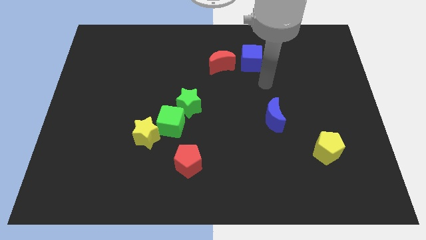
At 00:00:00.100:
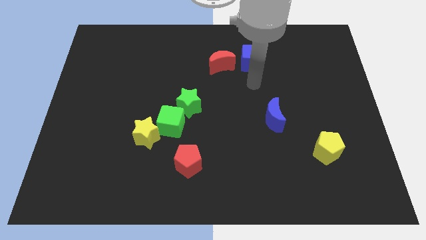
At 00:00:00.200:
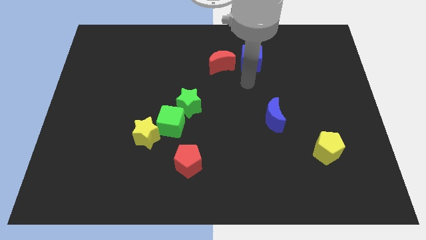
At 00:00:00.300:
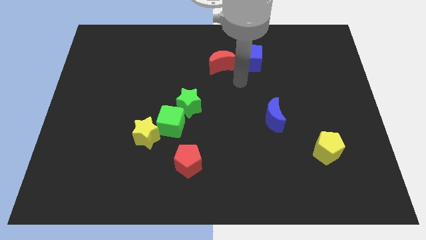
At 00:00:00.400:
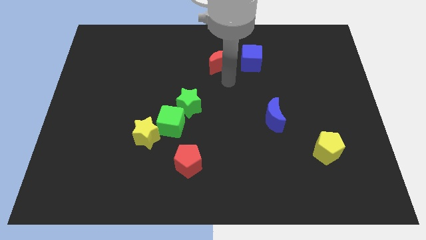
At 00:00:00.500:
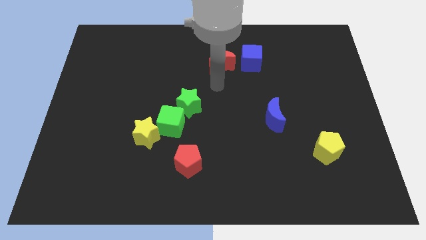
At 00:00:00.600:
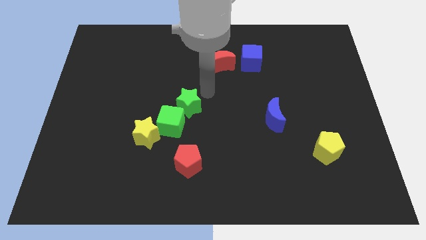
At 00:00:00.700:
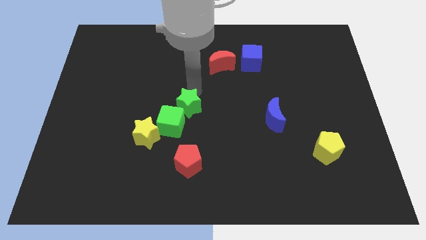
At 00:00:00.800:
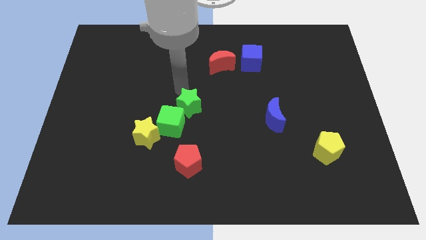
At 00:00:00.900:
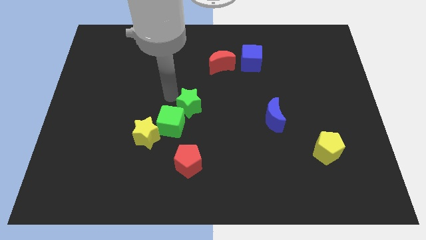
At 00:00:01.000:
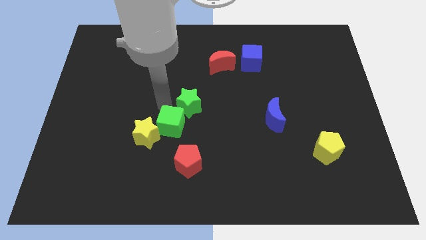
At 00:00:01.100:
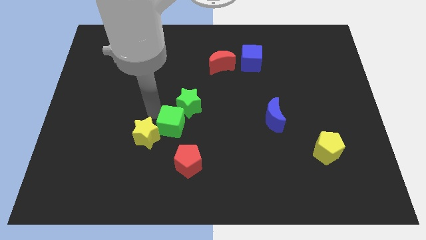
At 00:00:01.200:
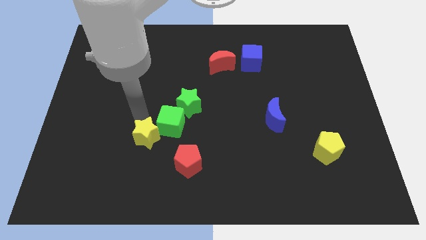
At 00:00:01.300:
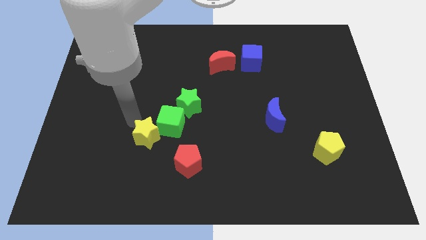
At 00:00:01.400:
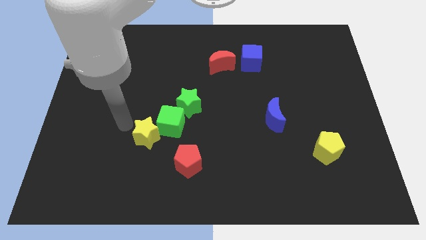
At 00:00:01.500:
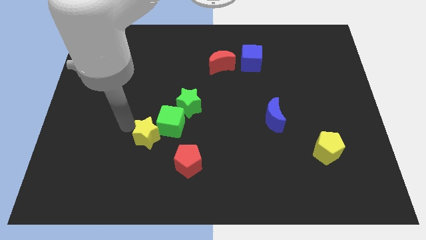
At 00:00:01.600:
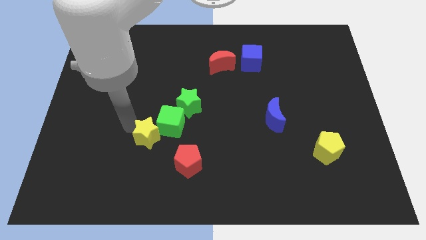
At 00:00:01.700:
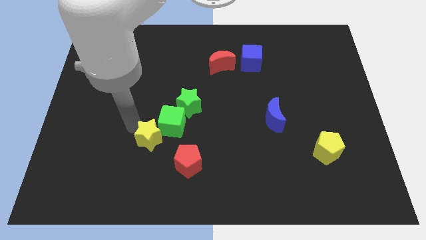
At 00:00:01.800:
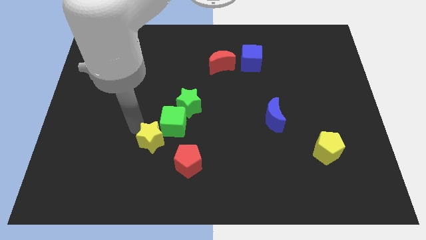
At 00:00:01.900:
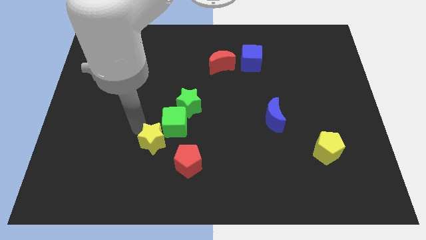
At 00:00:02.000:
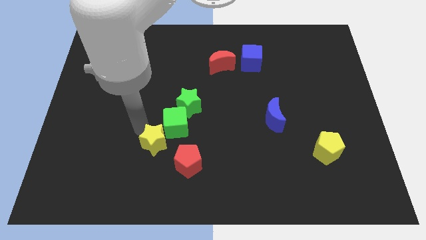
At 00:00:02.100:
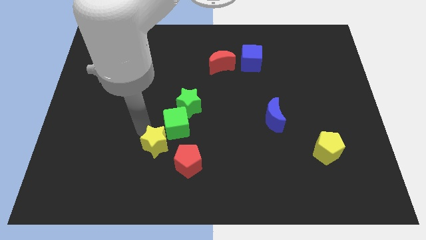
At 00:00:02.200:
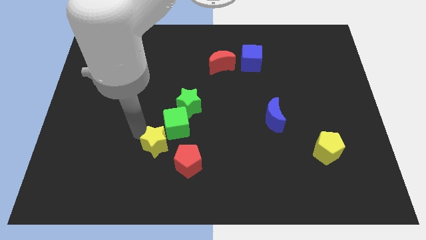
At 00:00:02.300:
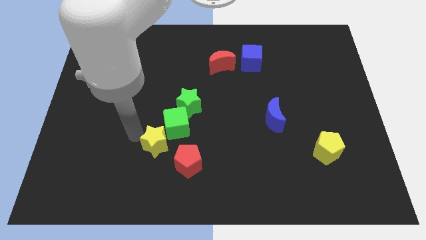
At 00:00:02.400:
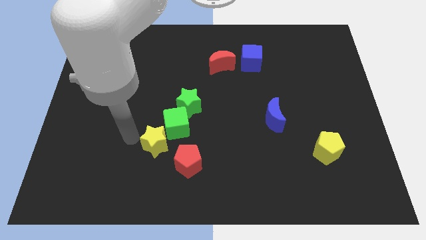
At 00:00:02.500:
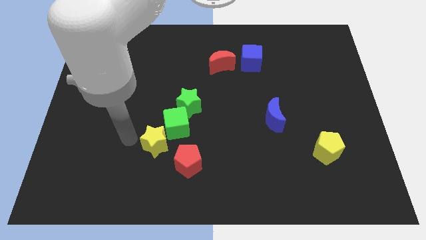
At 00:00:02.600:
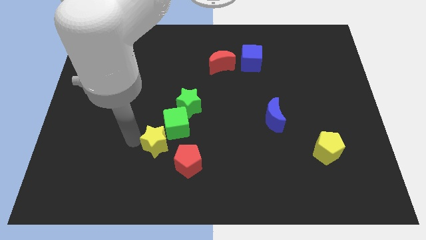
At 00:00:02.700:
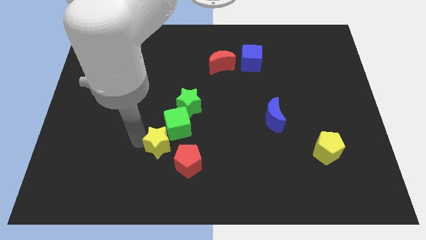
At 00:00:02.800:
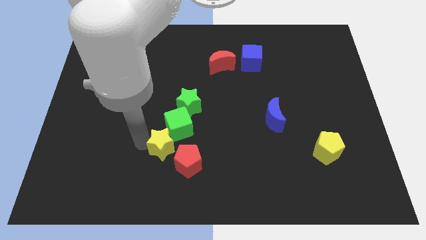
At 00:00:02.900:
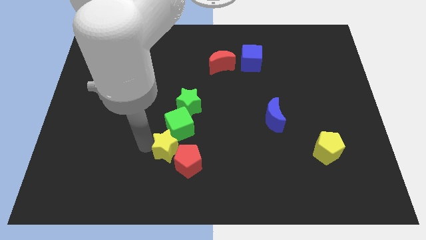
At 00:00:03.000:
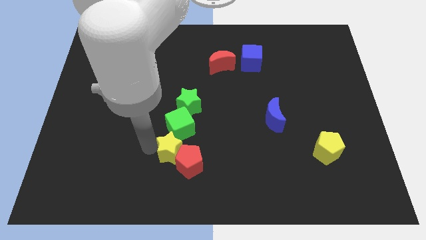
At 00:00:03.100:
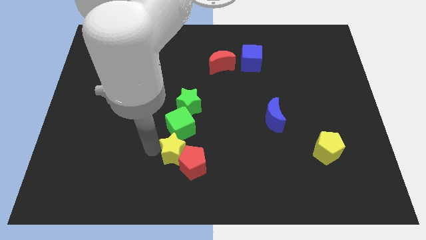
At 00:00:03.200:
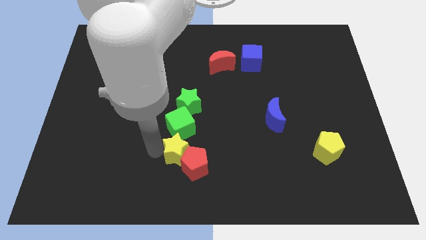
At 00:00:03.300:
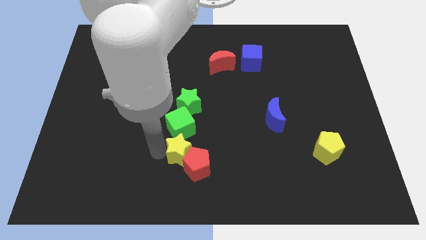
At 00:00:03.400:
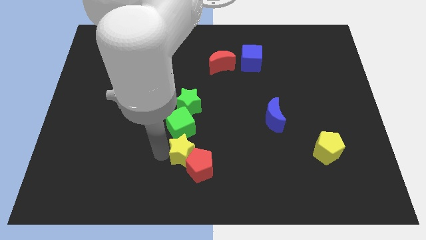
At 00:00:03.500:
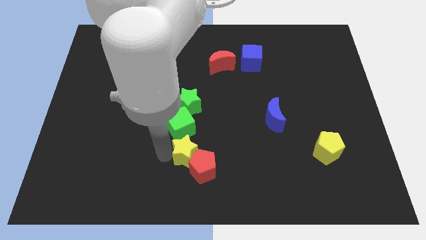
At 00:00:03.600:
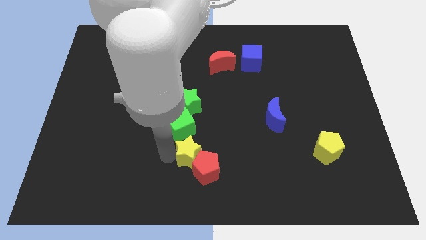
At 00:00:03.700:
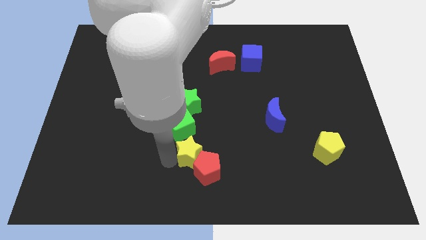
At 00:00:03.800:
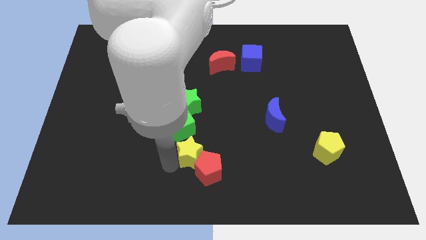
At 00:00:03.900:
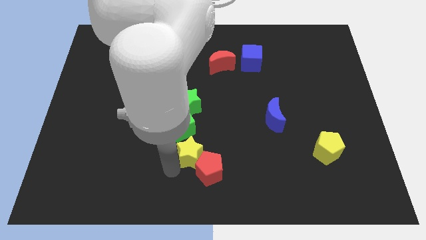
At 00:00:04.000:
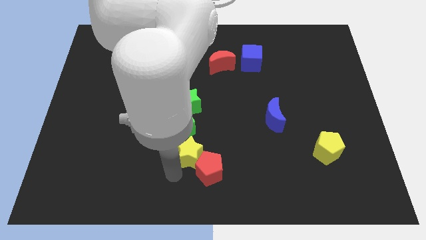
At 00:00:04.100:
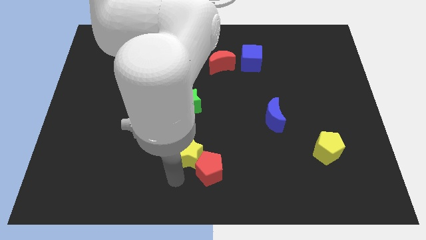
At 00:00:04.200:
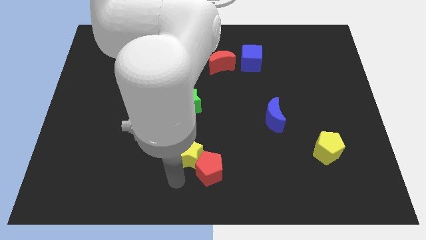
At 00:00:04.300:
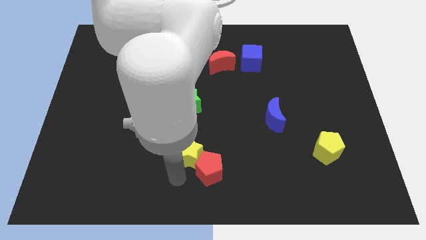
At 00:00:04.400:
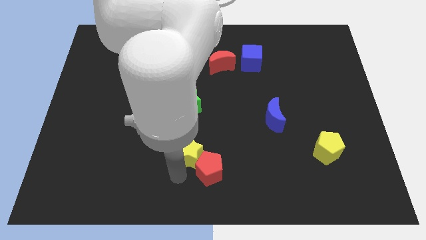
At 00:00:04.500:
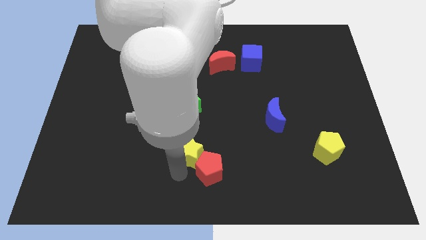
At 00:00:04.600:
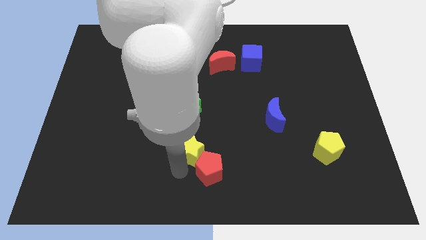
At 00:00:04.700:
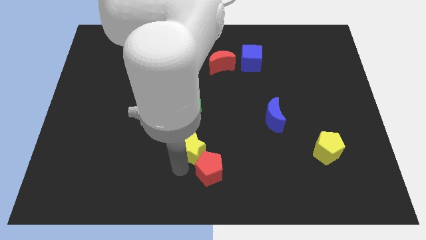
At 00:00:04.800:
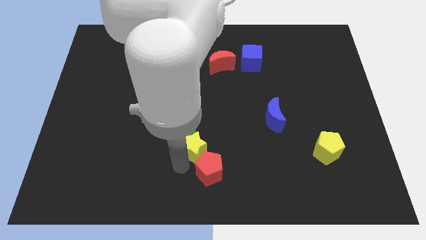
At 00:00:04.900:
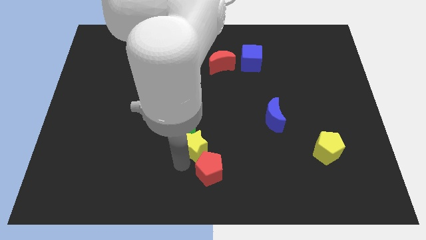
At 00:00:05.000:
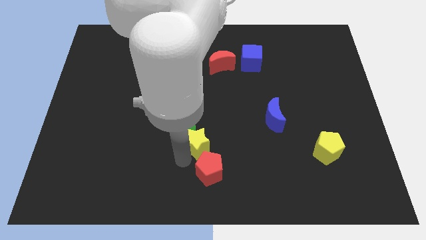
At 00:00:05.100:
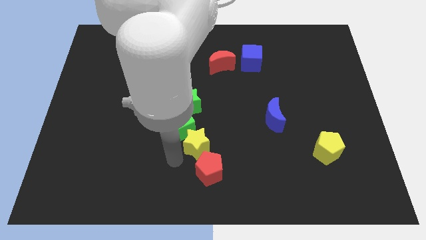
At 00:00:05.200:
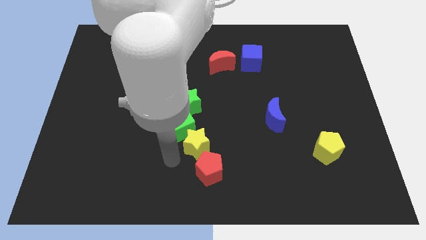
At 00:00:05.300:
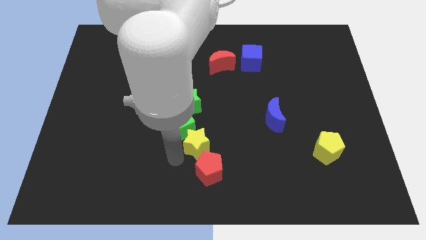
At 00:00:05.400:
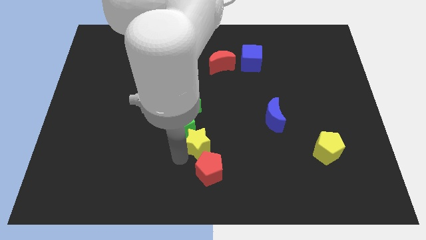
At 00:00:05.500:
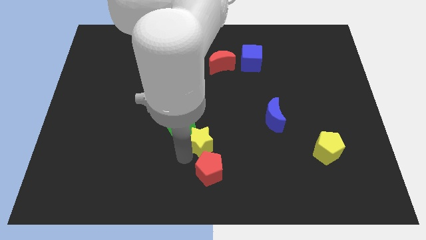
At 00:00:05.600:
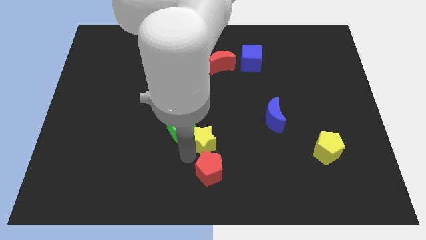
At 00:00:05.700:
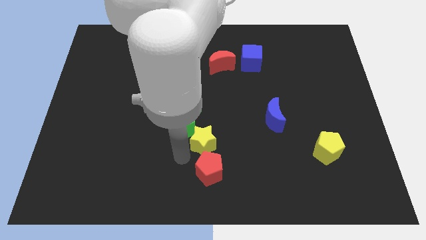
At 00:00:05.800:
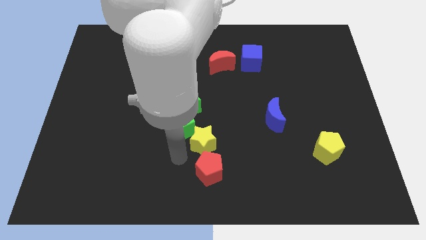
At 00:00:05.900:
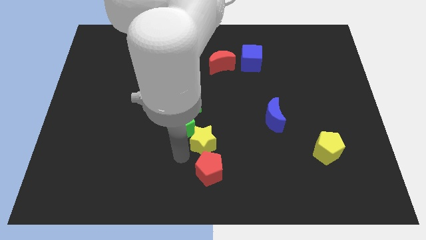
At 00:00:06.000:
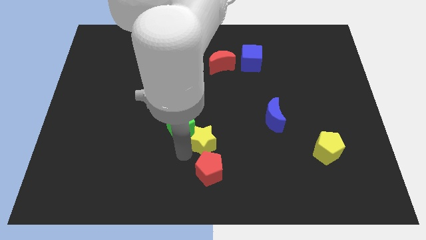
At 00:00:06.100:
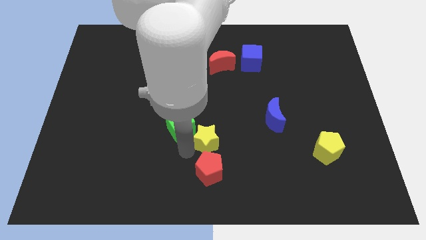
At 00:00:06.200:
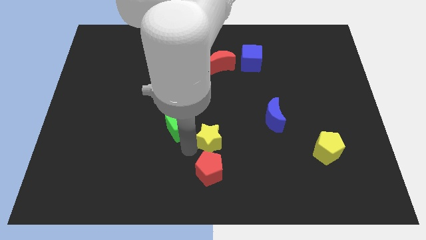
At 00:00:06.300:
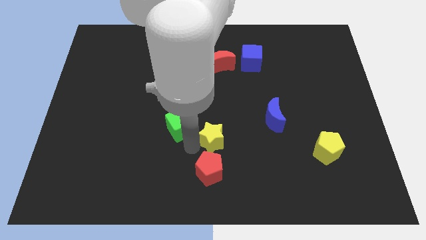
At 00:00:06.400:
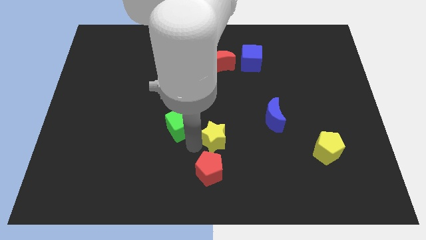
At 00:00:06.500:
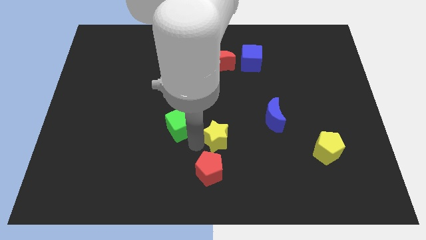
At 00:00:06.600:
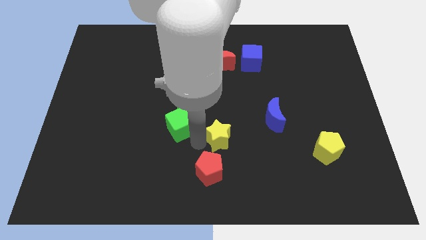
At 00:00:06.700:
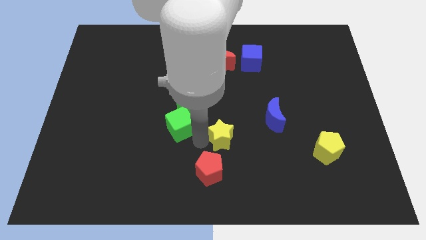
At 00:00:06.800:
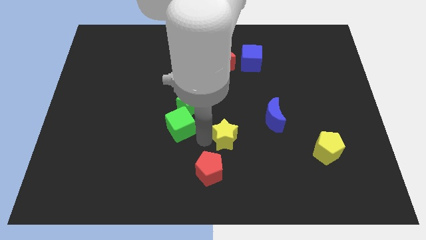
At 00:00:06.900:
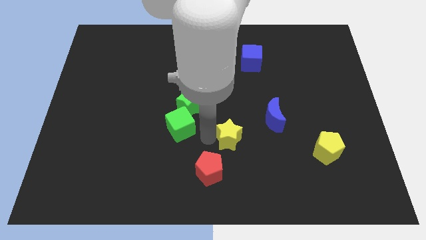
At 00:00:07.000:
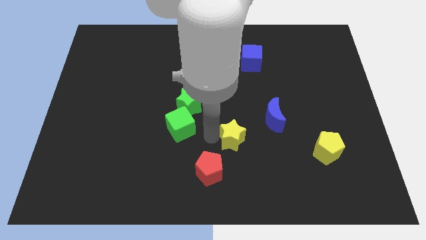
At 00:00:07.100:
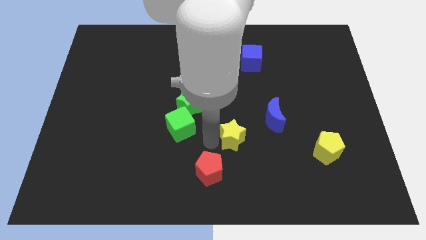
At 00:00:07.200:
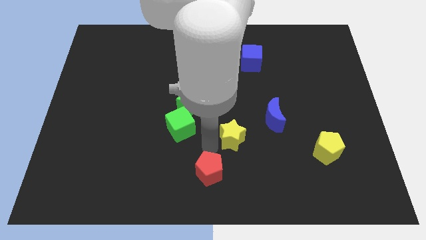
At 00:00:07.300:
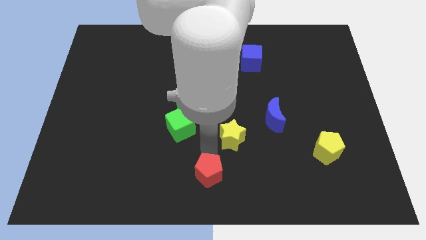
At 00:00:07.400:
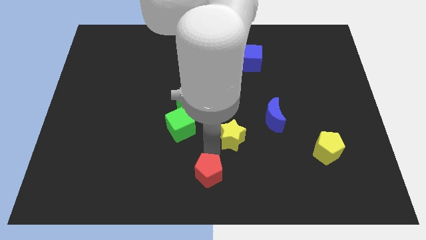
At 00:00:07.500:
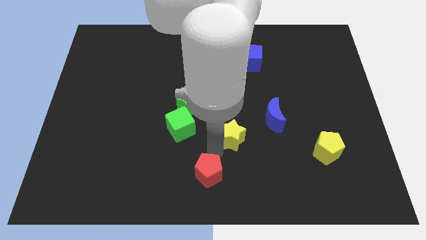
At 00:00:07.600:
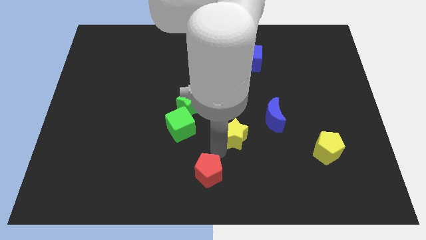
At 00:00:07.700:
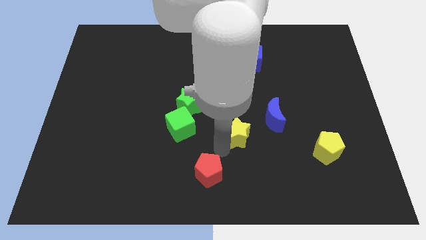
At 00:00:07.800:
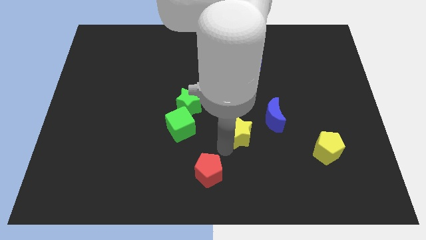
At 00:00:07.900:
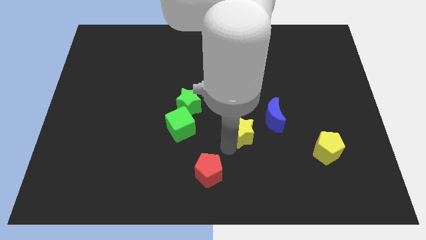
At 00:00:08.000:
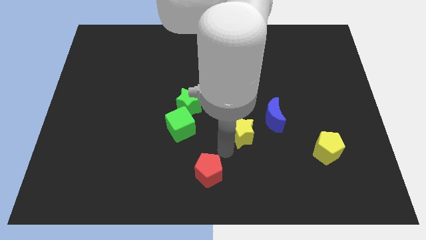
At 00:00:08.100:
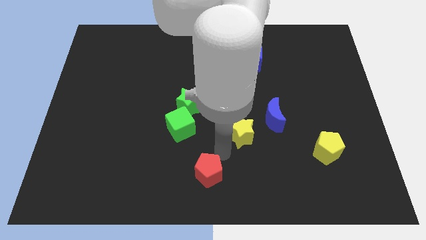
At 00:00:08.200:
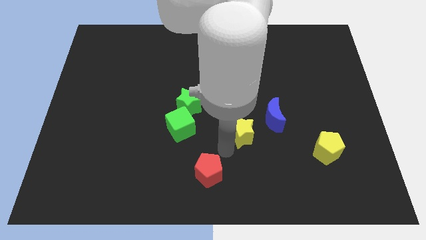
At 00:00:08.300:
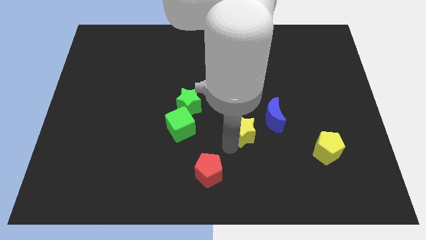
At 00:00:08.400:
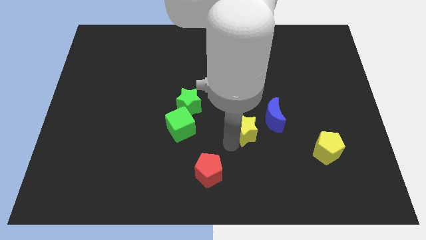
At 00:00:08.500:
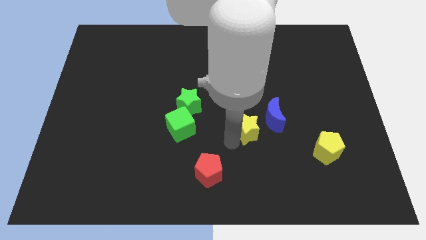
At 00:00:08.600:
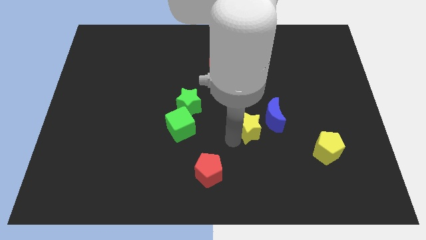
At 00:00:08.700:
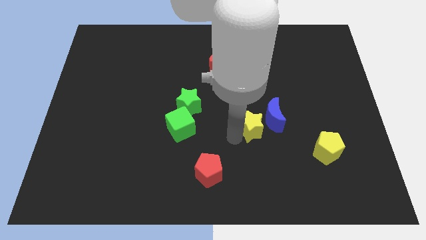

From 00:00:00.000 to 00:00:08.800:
slide the yellow star next to the blue moon
